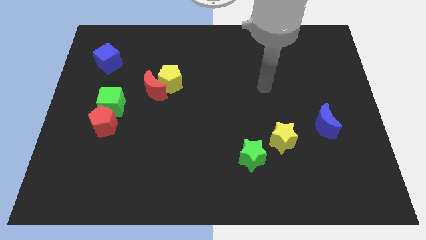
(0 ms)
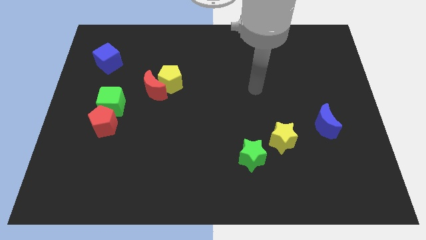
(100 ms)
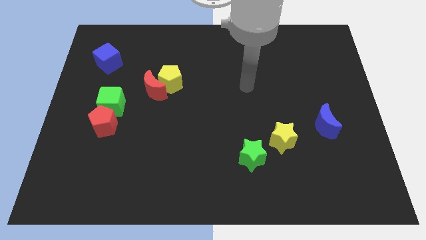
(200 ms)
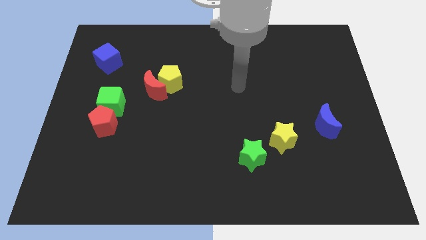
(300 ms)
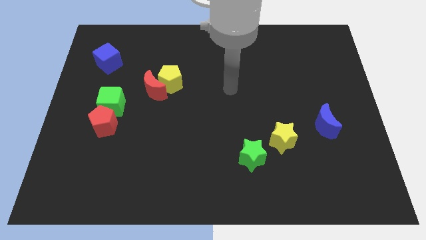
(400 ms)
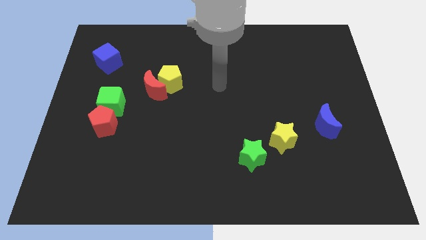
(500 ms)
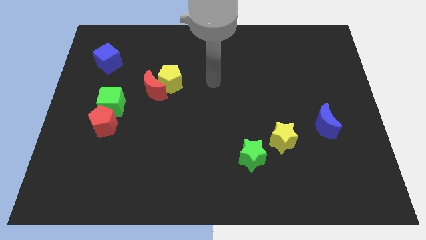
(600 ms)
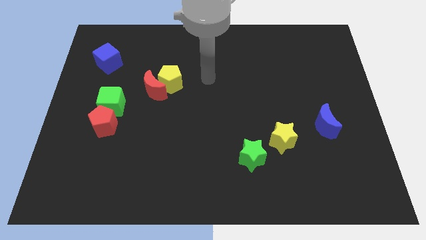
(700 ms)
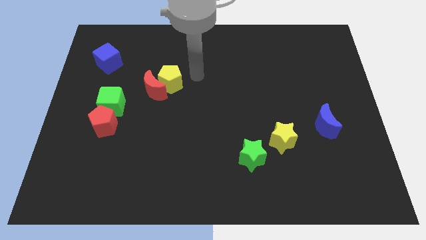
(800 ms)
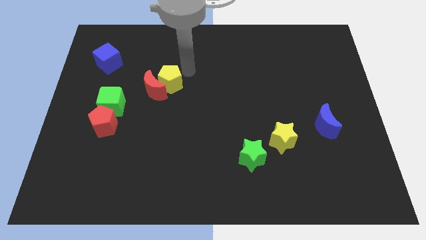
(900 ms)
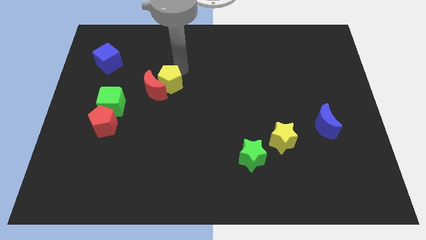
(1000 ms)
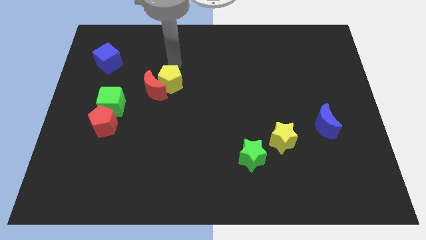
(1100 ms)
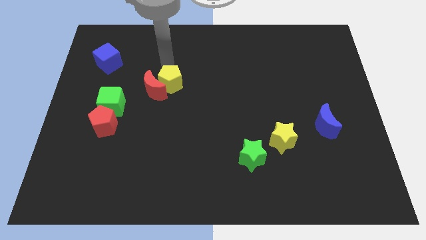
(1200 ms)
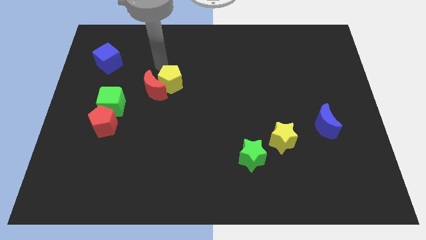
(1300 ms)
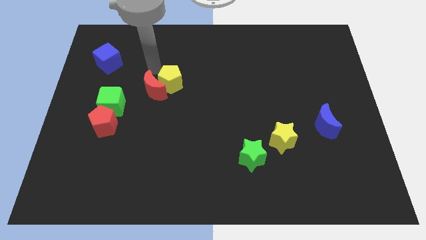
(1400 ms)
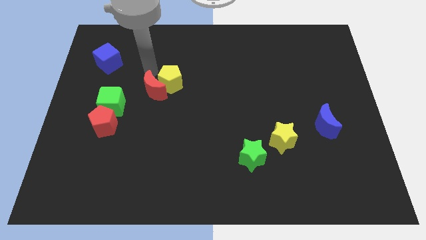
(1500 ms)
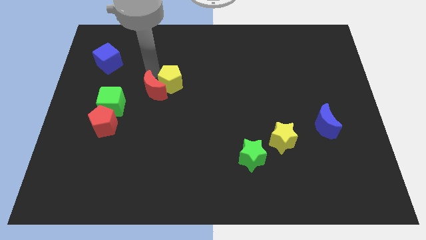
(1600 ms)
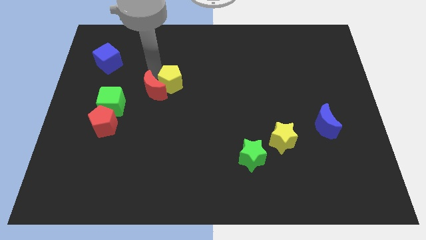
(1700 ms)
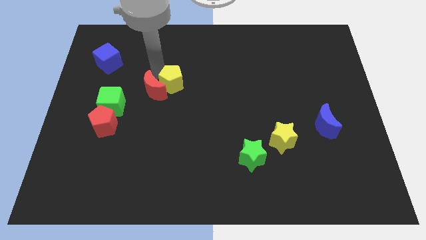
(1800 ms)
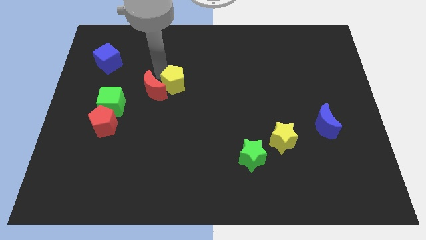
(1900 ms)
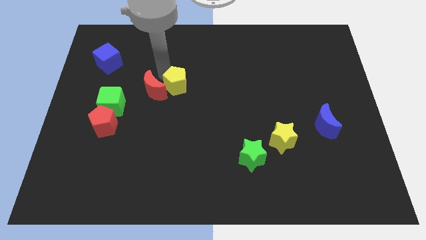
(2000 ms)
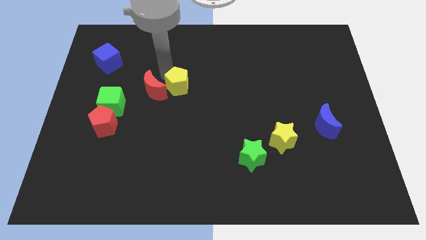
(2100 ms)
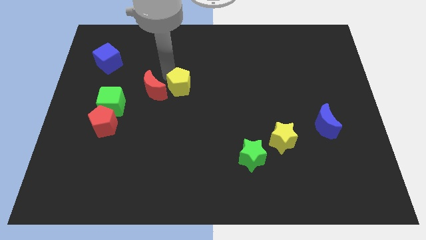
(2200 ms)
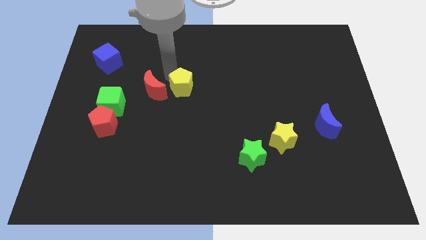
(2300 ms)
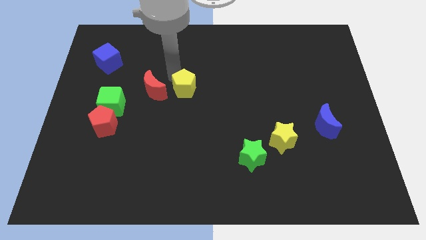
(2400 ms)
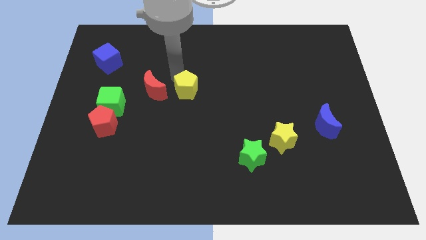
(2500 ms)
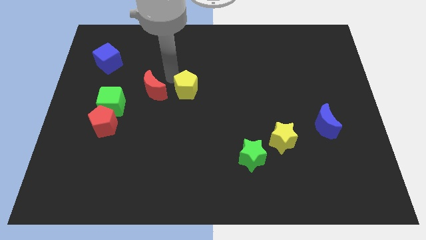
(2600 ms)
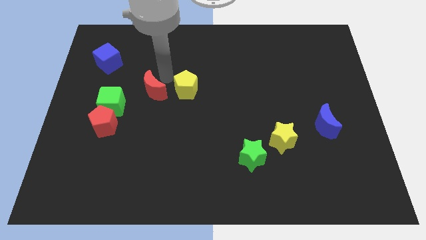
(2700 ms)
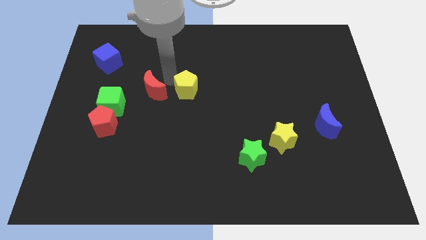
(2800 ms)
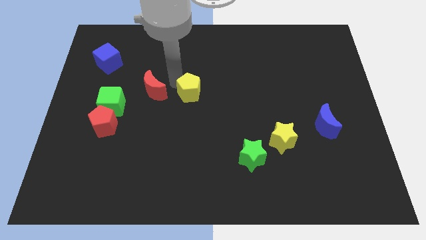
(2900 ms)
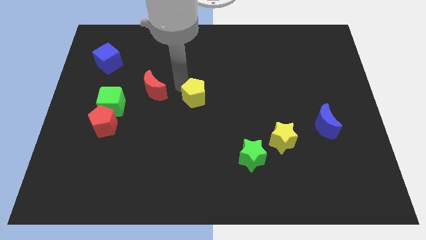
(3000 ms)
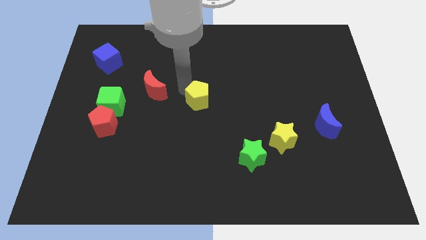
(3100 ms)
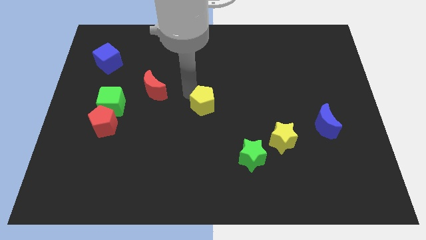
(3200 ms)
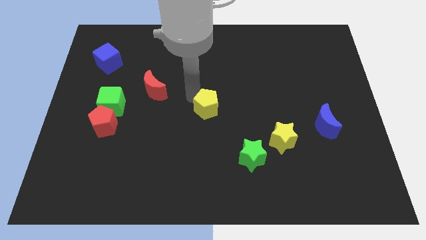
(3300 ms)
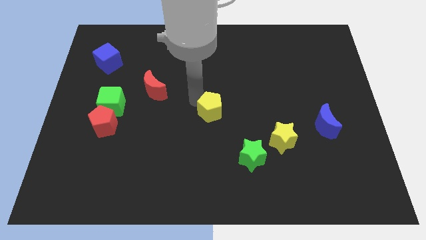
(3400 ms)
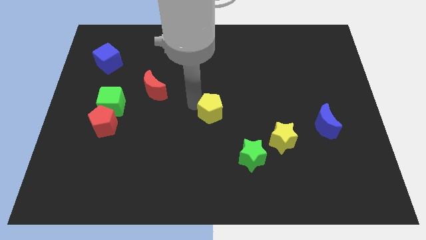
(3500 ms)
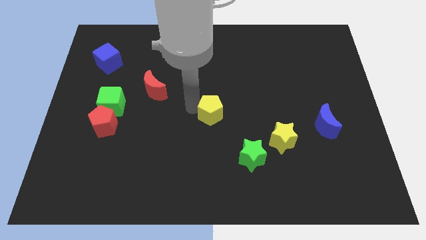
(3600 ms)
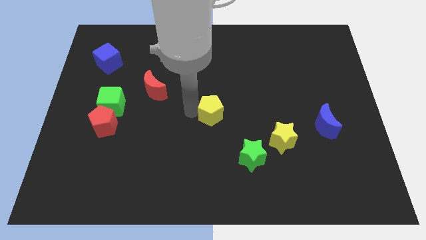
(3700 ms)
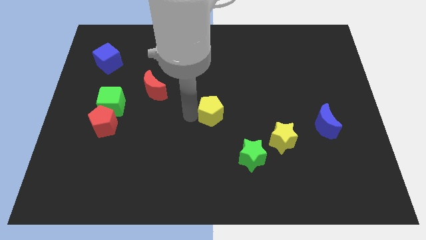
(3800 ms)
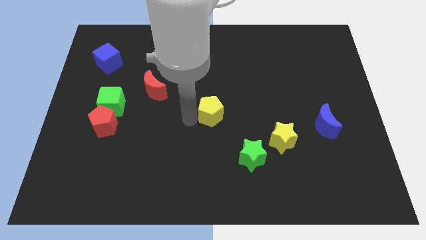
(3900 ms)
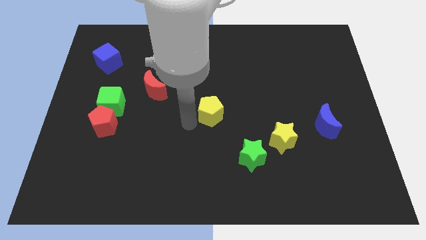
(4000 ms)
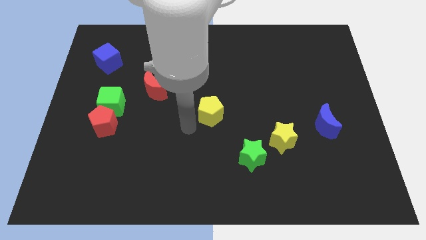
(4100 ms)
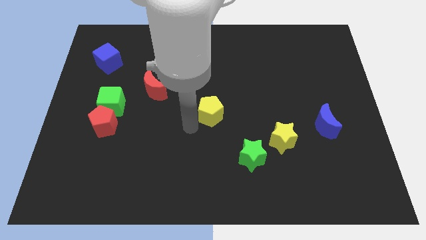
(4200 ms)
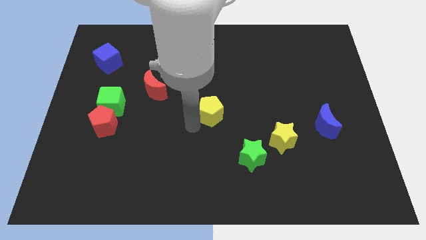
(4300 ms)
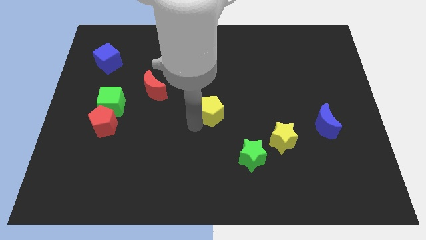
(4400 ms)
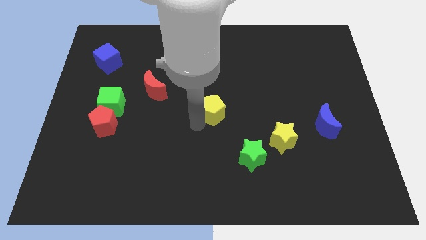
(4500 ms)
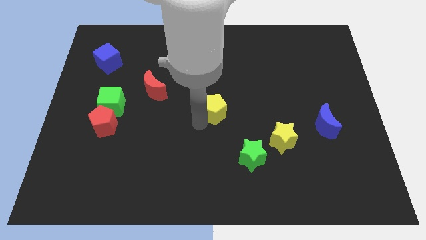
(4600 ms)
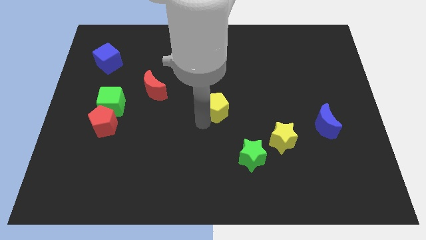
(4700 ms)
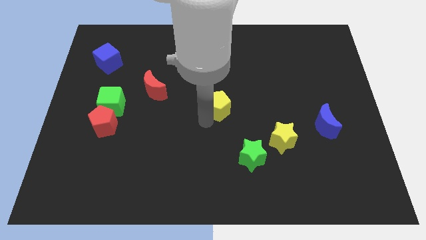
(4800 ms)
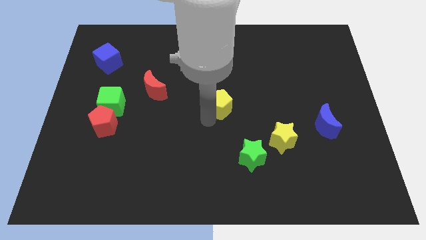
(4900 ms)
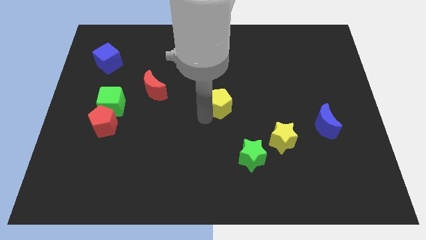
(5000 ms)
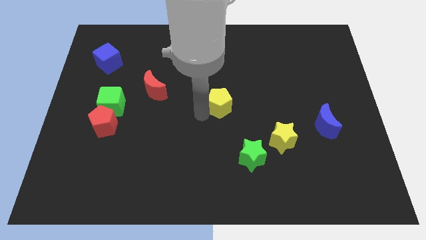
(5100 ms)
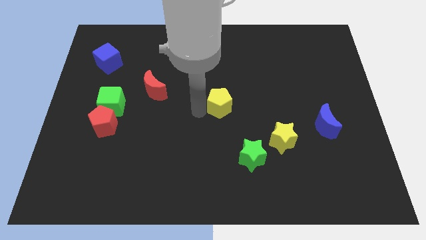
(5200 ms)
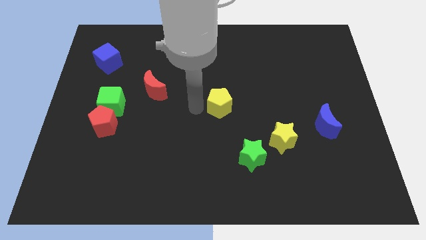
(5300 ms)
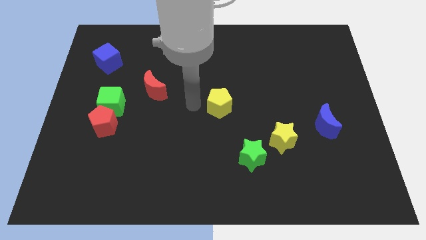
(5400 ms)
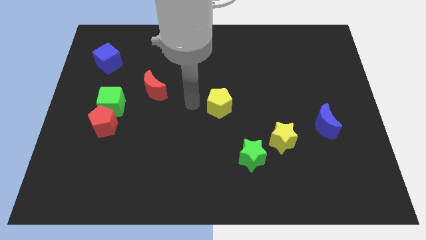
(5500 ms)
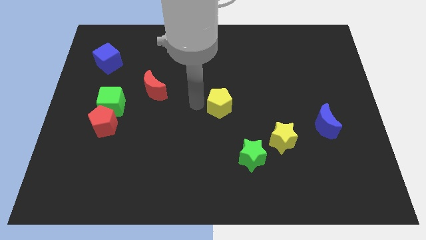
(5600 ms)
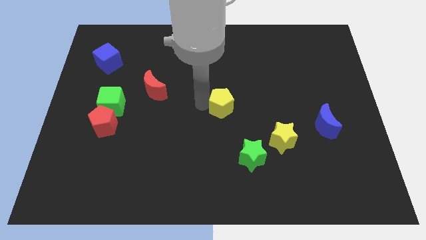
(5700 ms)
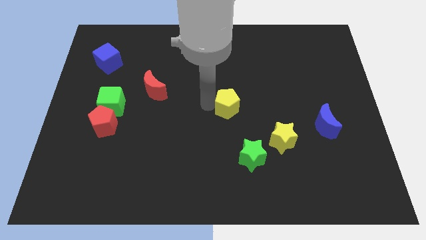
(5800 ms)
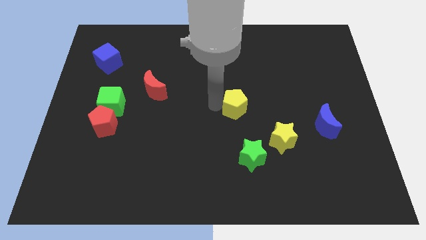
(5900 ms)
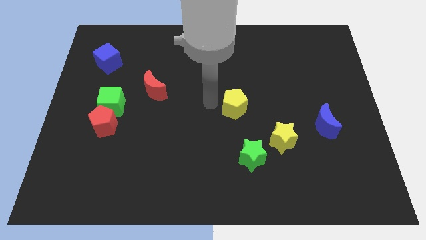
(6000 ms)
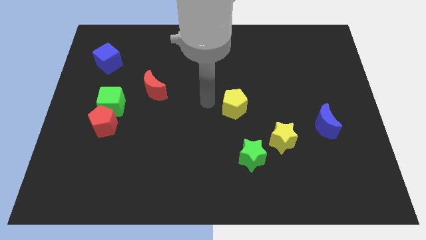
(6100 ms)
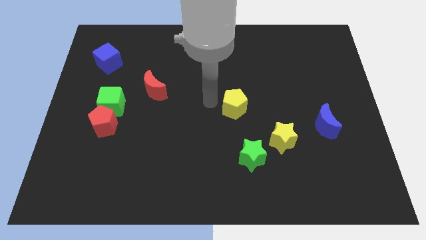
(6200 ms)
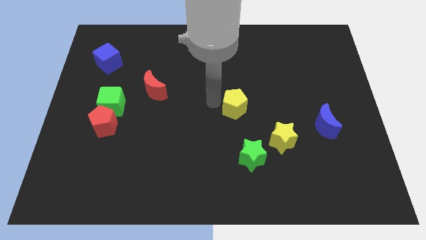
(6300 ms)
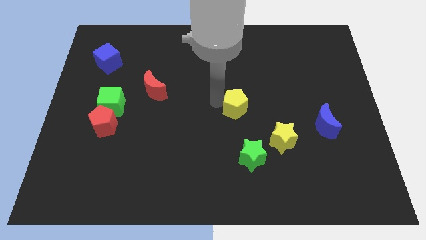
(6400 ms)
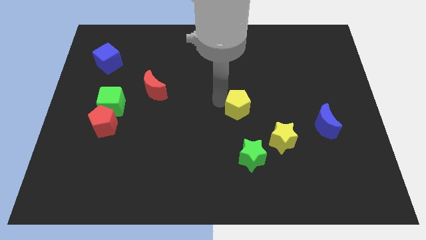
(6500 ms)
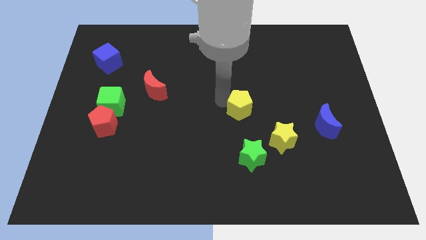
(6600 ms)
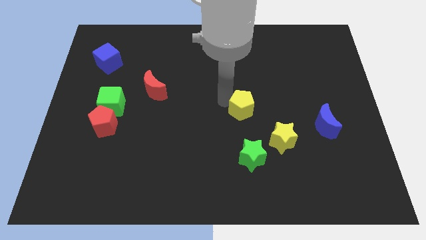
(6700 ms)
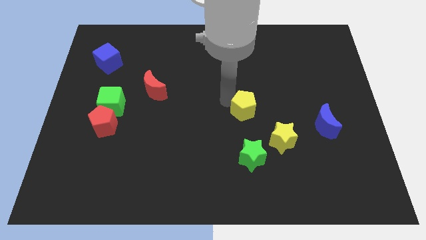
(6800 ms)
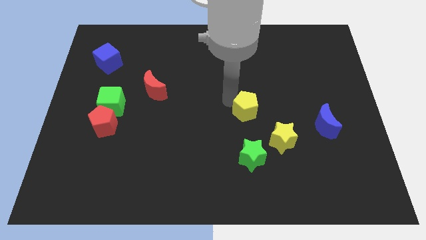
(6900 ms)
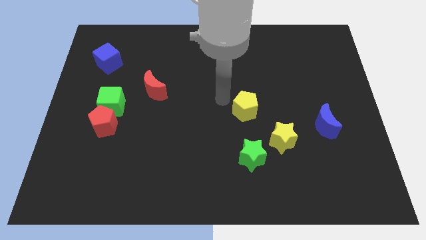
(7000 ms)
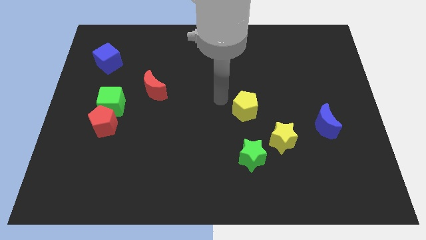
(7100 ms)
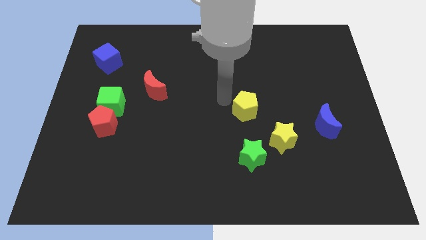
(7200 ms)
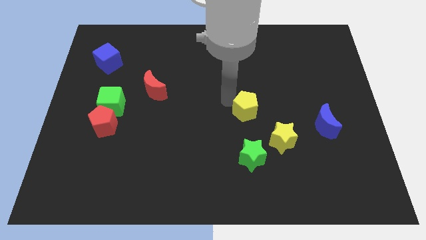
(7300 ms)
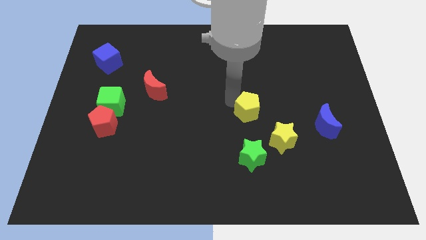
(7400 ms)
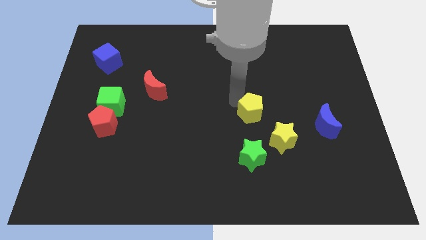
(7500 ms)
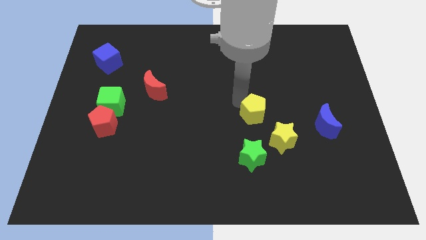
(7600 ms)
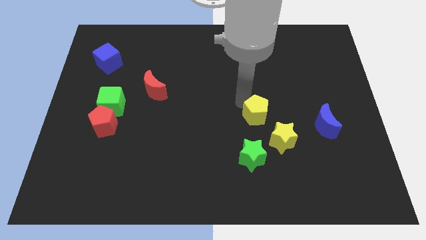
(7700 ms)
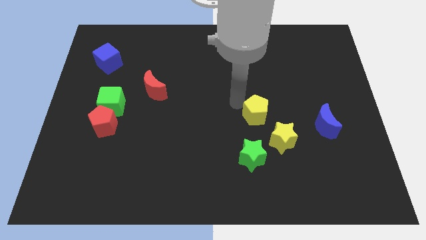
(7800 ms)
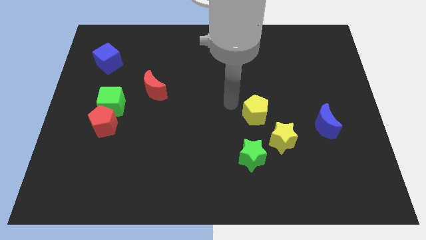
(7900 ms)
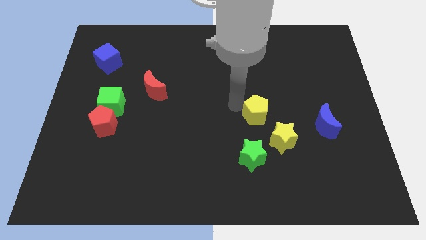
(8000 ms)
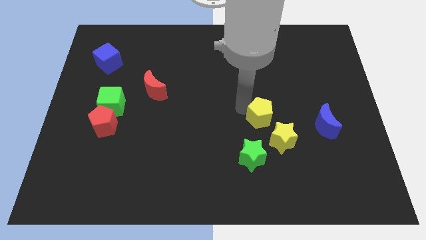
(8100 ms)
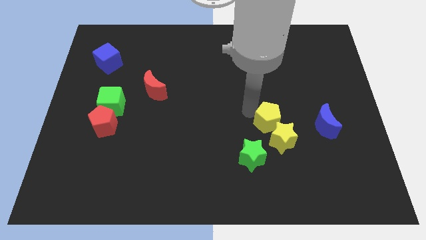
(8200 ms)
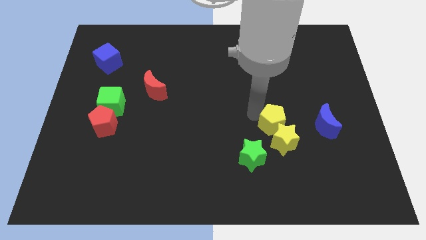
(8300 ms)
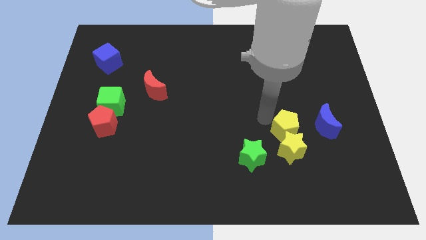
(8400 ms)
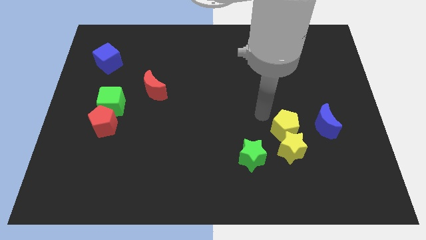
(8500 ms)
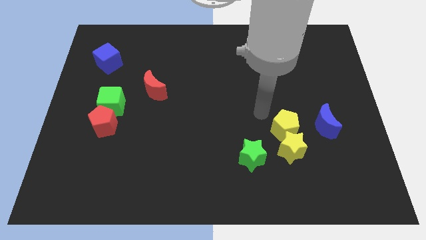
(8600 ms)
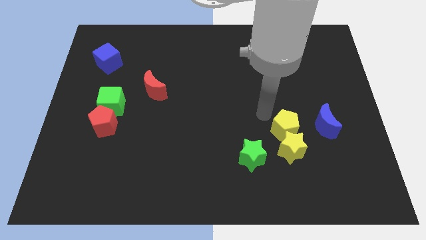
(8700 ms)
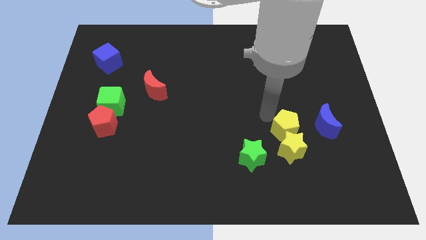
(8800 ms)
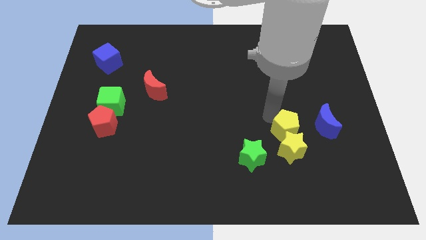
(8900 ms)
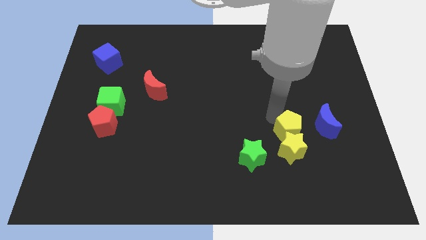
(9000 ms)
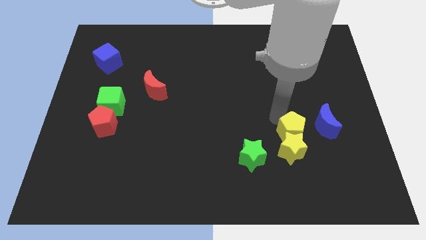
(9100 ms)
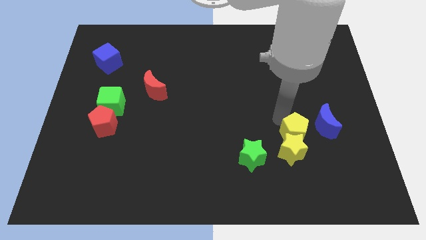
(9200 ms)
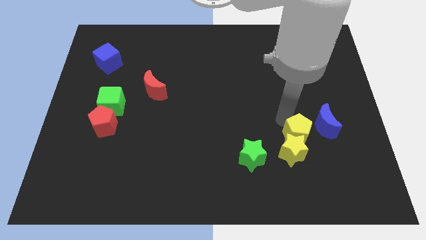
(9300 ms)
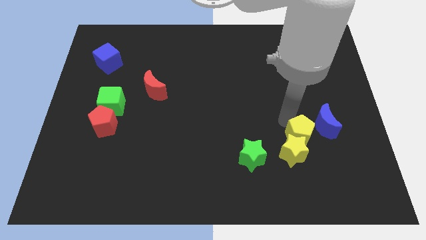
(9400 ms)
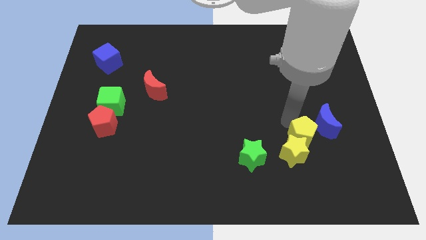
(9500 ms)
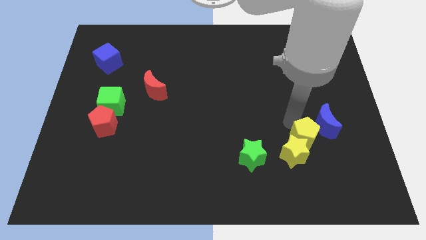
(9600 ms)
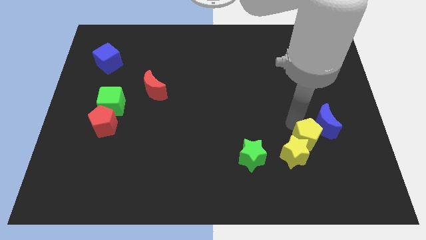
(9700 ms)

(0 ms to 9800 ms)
slide the yellow pentagon to the bottom side of the blue moon
